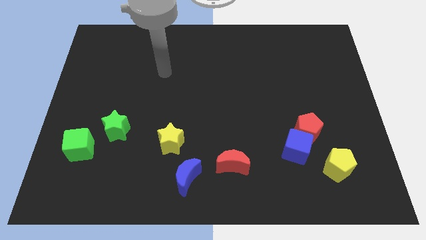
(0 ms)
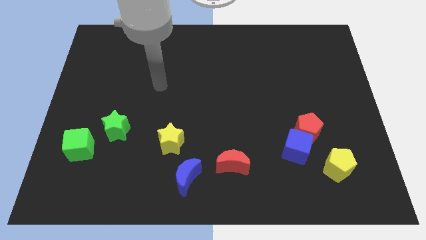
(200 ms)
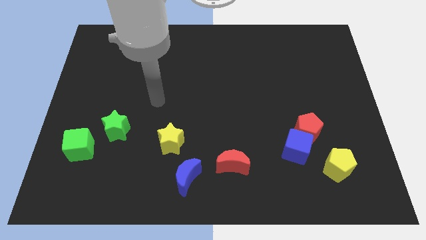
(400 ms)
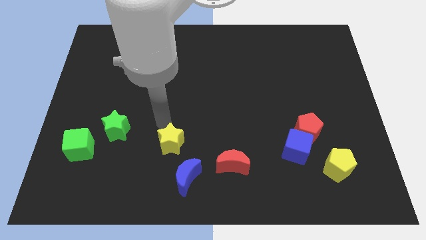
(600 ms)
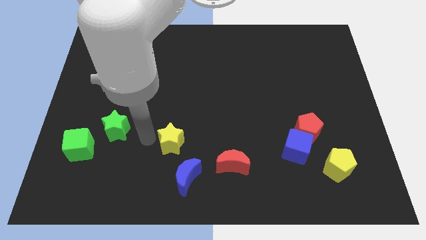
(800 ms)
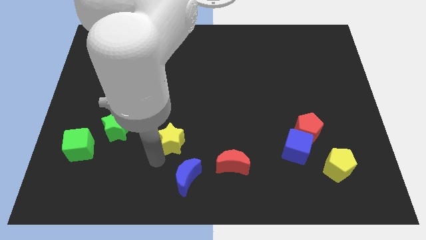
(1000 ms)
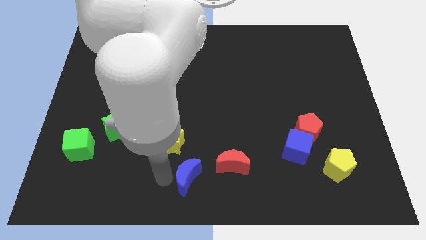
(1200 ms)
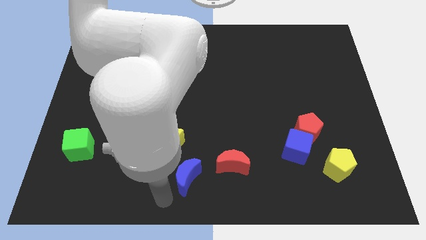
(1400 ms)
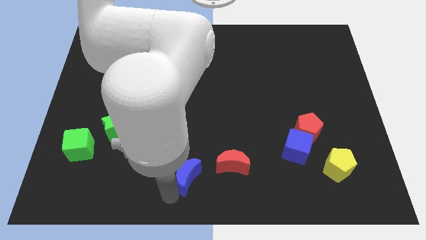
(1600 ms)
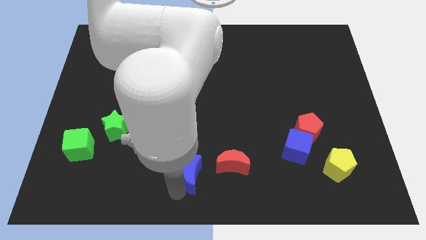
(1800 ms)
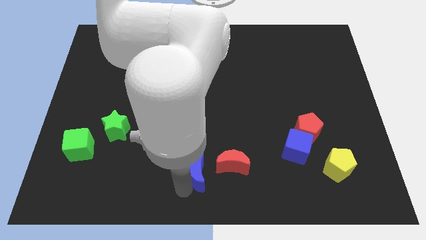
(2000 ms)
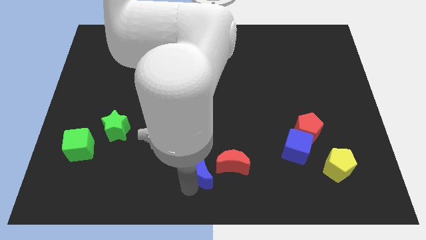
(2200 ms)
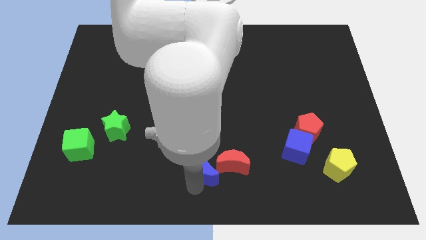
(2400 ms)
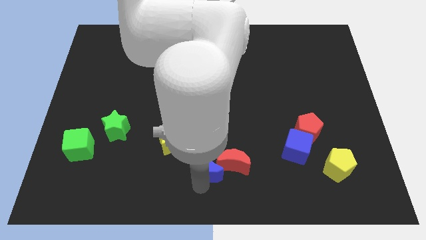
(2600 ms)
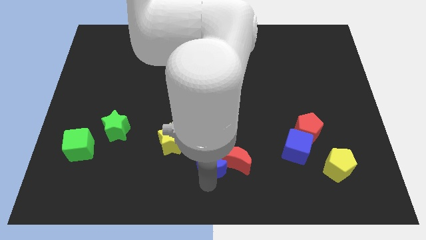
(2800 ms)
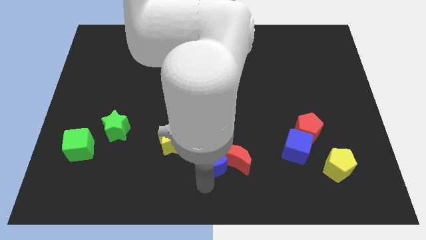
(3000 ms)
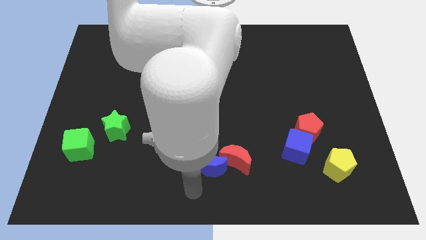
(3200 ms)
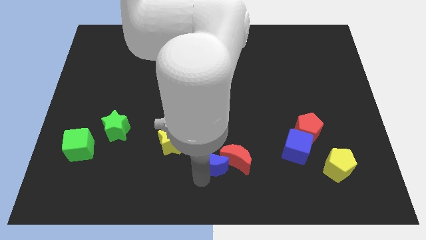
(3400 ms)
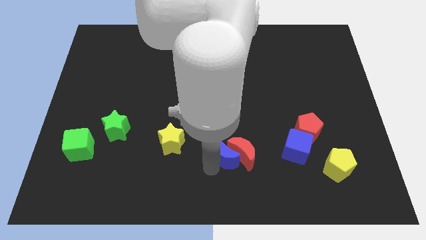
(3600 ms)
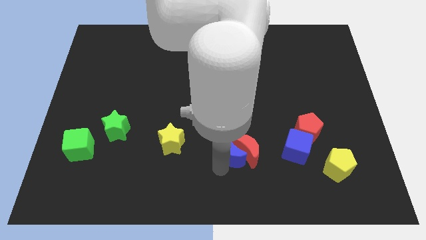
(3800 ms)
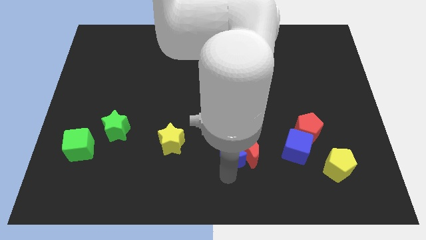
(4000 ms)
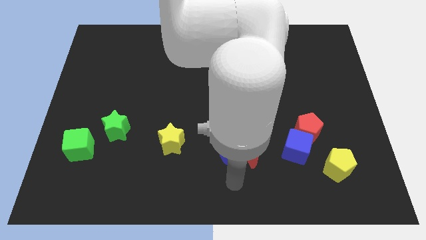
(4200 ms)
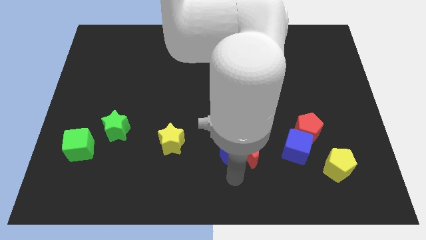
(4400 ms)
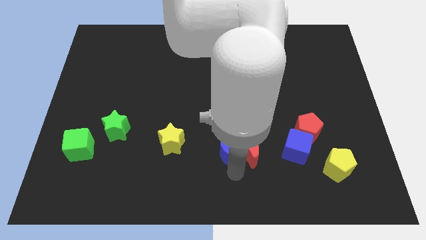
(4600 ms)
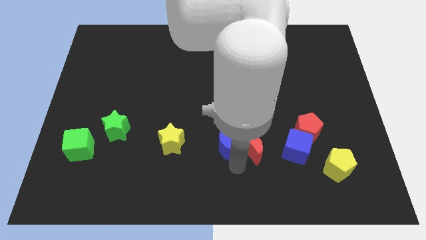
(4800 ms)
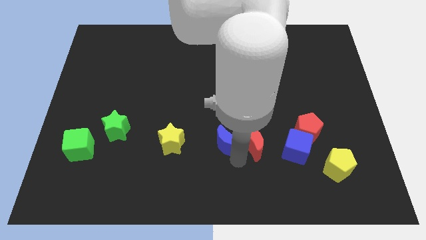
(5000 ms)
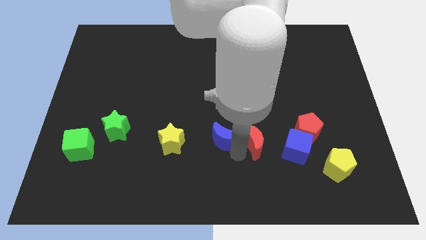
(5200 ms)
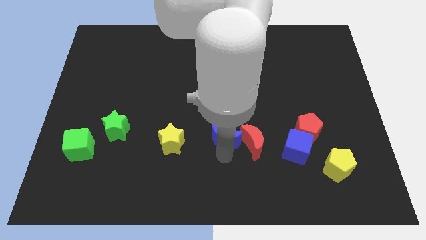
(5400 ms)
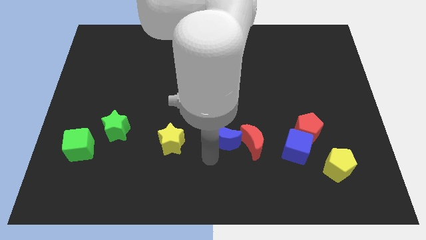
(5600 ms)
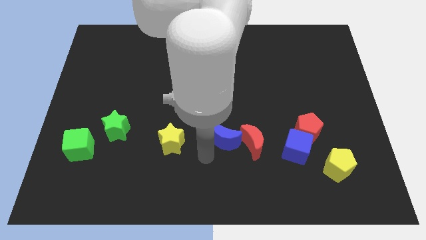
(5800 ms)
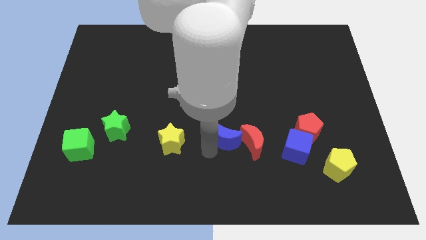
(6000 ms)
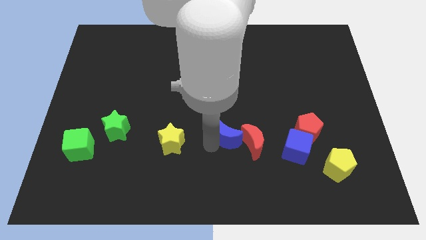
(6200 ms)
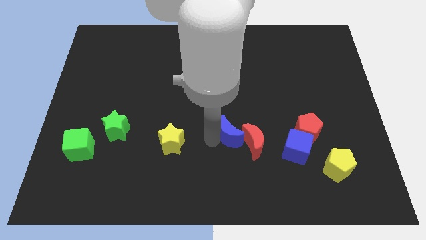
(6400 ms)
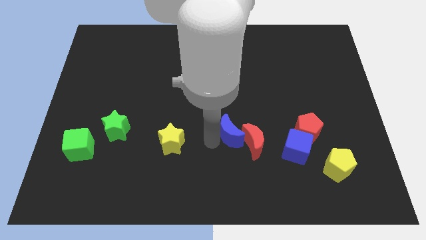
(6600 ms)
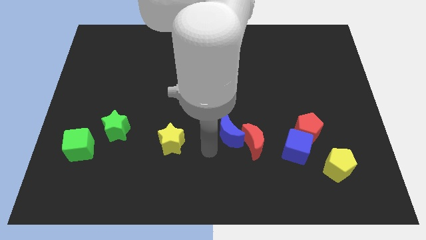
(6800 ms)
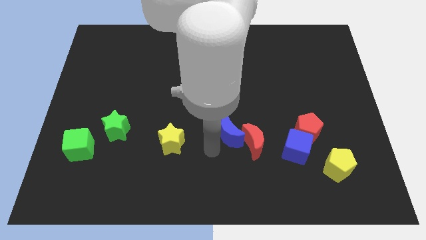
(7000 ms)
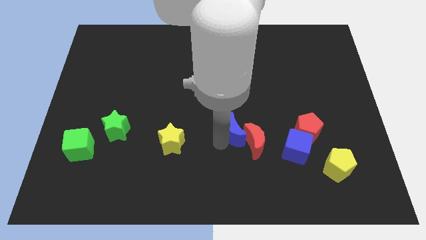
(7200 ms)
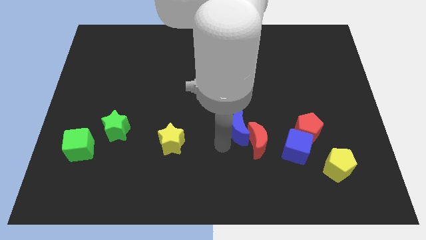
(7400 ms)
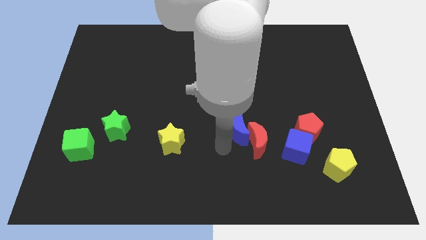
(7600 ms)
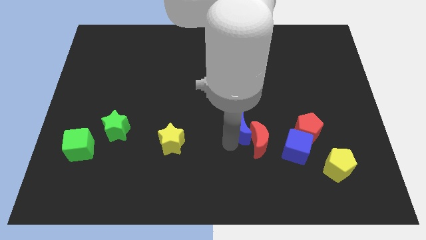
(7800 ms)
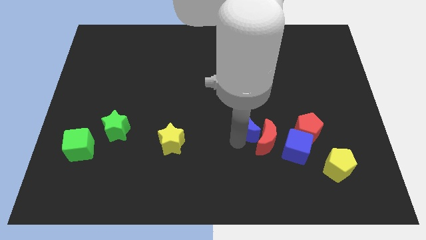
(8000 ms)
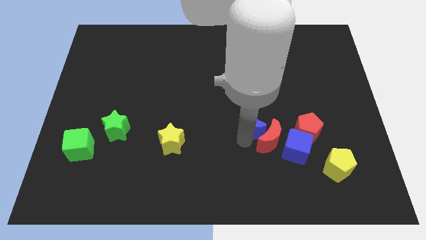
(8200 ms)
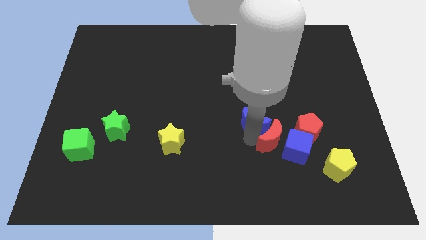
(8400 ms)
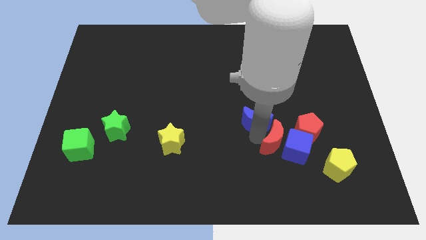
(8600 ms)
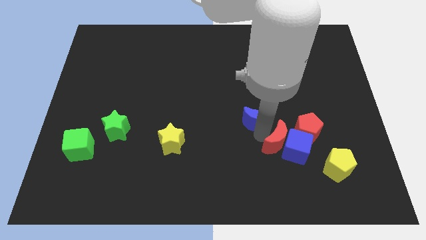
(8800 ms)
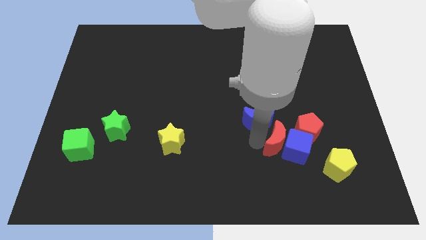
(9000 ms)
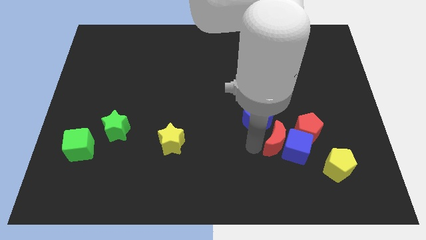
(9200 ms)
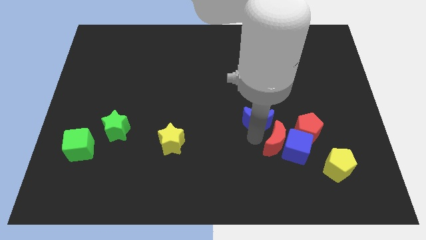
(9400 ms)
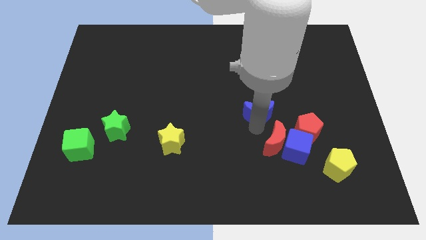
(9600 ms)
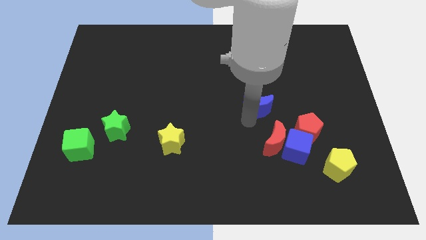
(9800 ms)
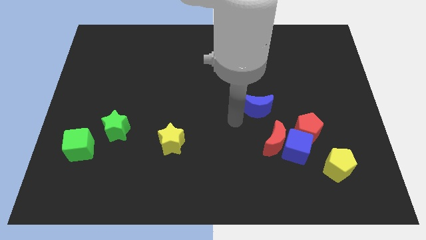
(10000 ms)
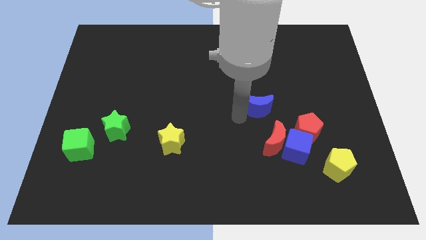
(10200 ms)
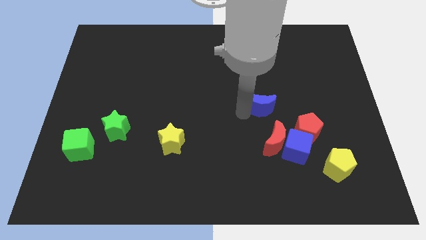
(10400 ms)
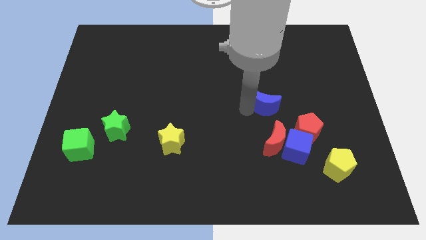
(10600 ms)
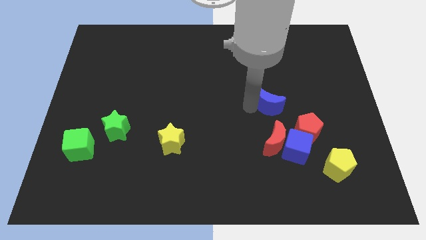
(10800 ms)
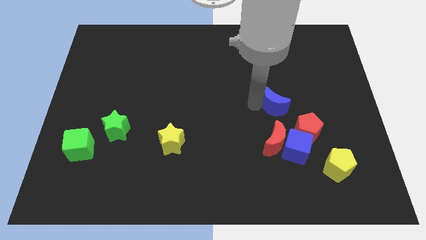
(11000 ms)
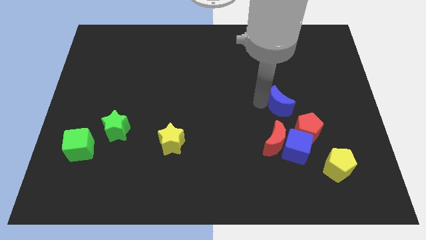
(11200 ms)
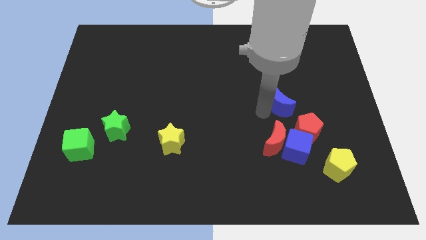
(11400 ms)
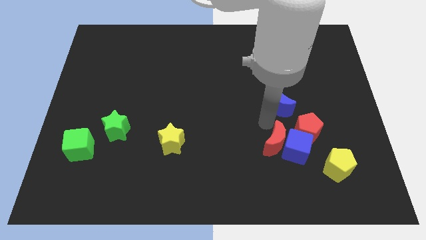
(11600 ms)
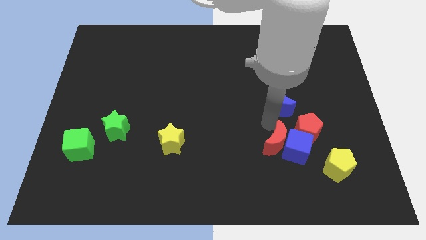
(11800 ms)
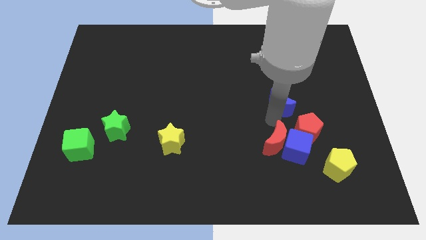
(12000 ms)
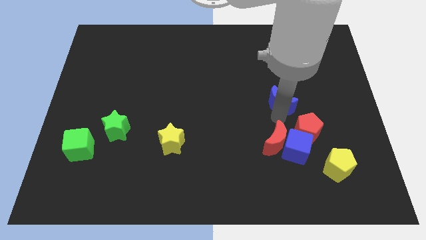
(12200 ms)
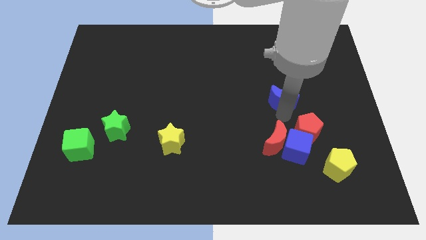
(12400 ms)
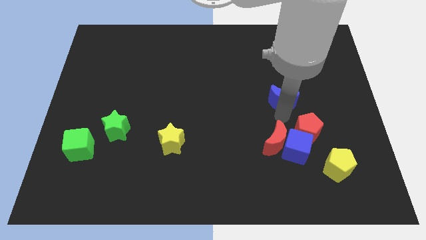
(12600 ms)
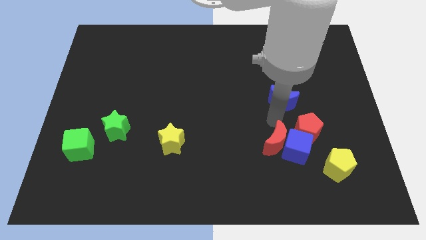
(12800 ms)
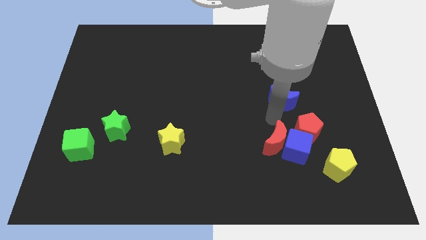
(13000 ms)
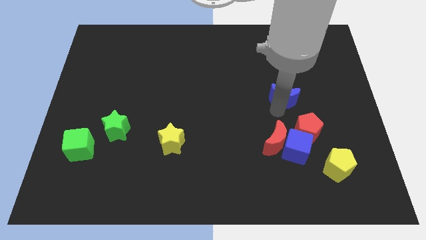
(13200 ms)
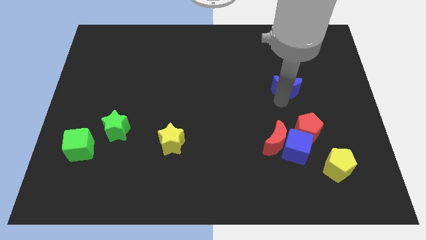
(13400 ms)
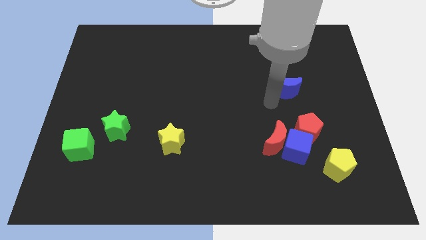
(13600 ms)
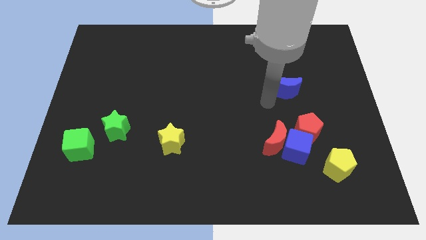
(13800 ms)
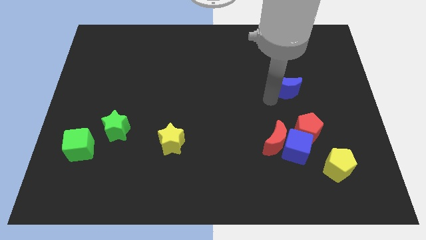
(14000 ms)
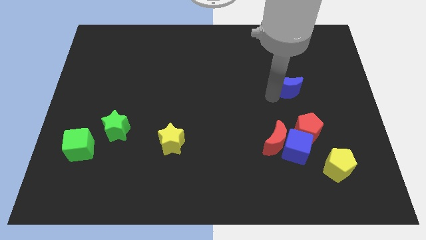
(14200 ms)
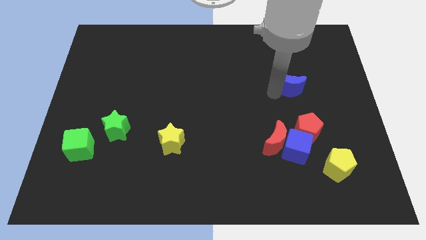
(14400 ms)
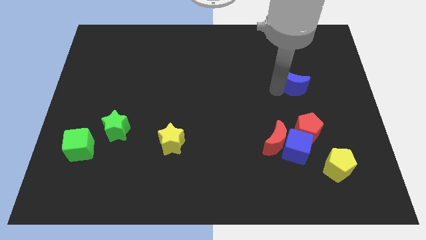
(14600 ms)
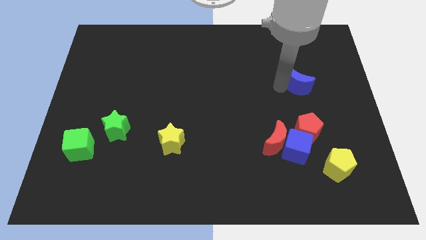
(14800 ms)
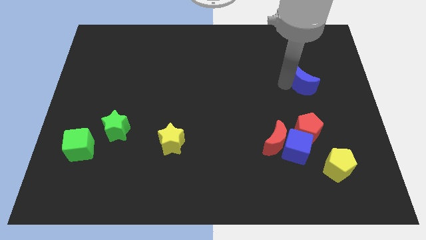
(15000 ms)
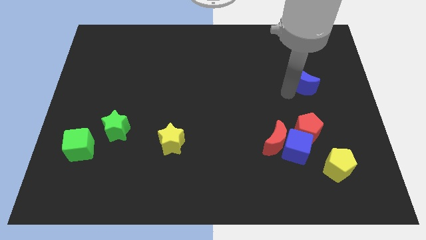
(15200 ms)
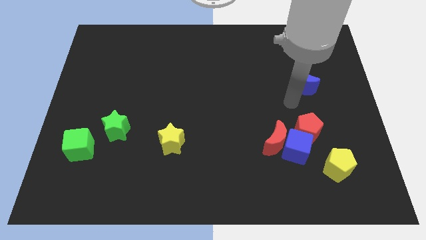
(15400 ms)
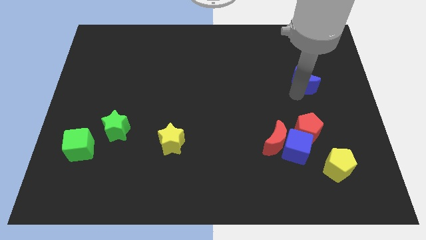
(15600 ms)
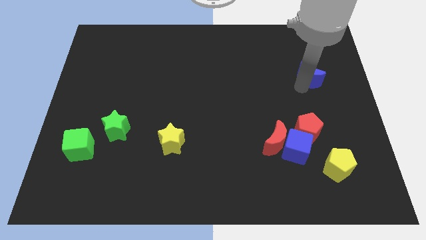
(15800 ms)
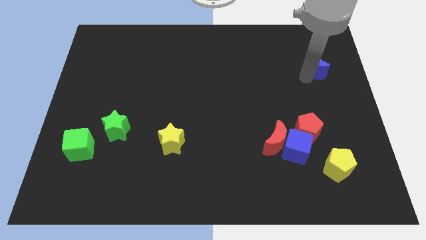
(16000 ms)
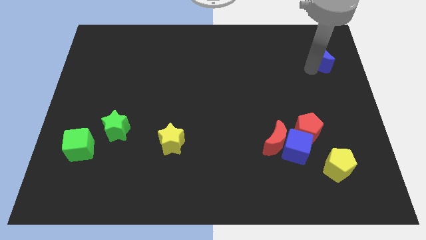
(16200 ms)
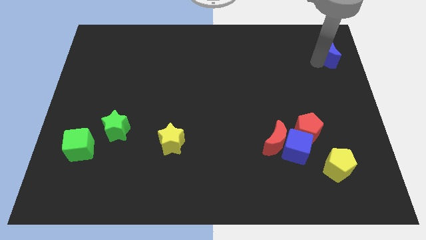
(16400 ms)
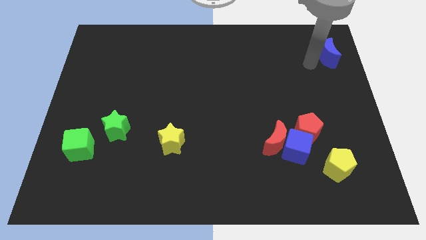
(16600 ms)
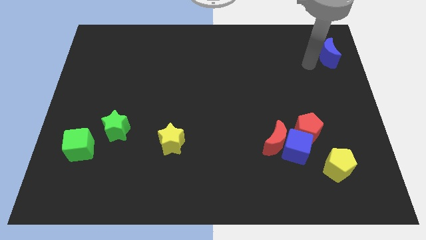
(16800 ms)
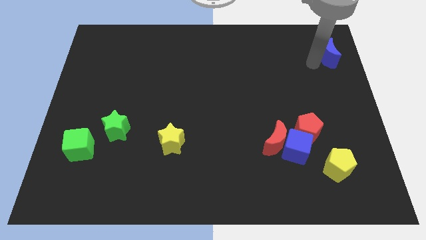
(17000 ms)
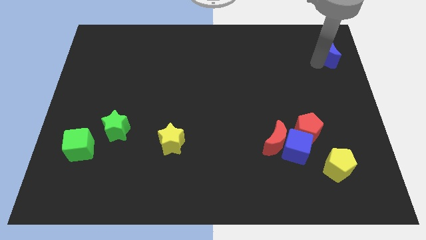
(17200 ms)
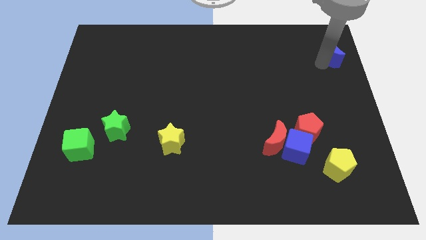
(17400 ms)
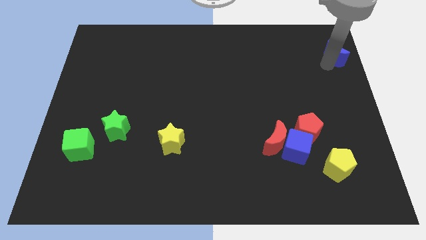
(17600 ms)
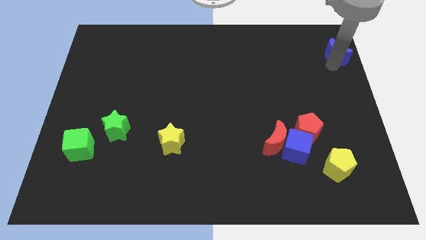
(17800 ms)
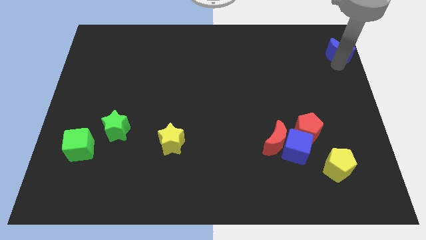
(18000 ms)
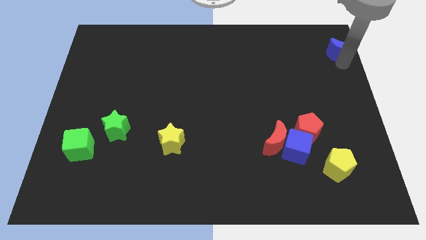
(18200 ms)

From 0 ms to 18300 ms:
slide the blue moon to the top right corner
